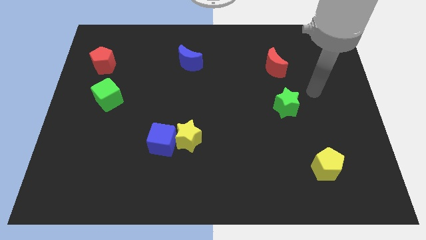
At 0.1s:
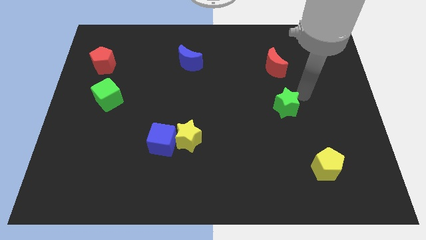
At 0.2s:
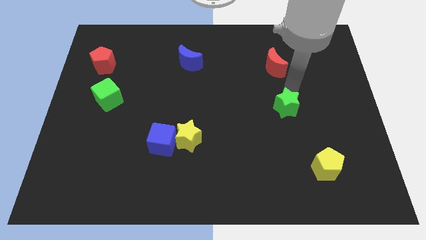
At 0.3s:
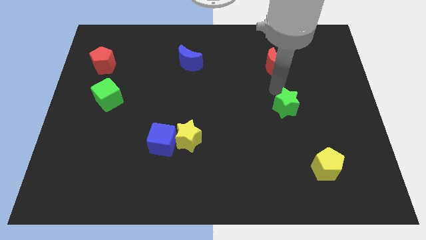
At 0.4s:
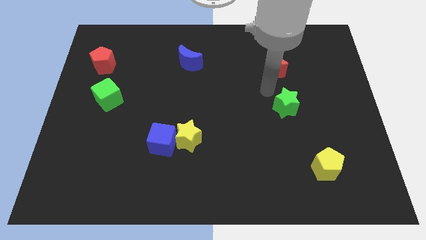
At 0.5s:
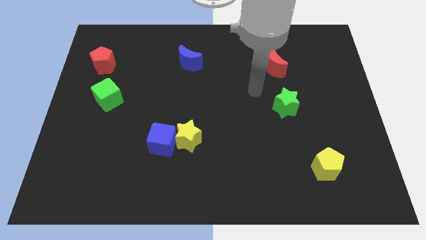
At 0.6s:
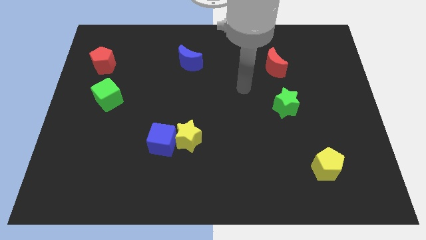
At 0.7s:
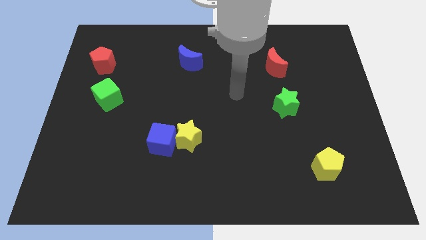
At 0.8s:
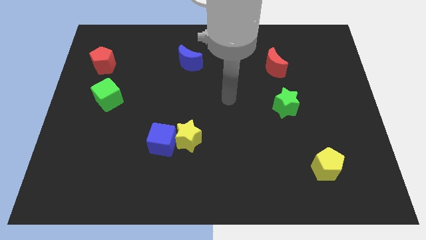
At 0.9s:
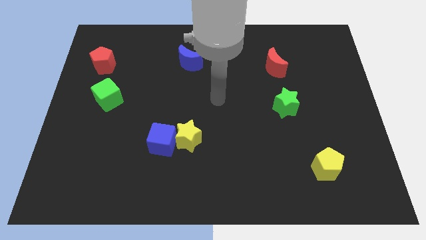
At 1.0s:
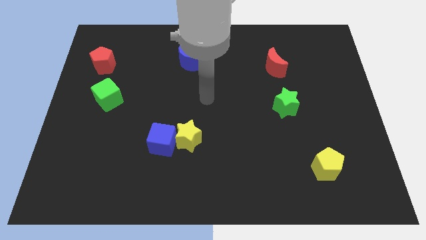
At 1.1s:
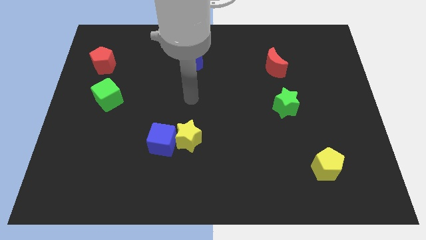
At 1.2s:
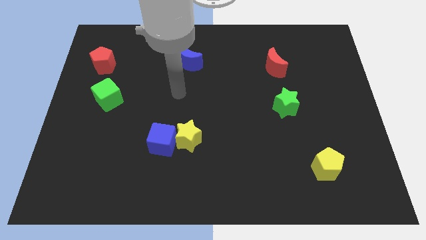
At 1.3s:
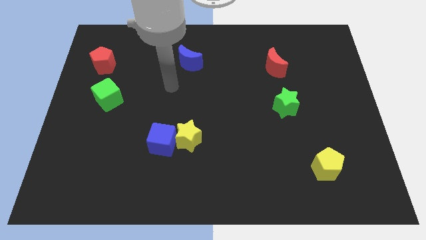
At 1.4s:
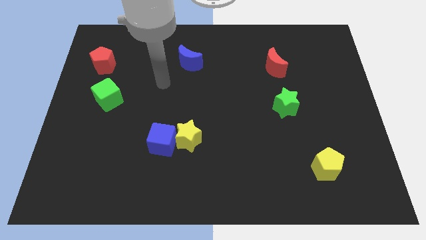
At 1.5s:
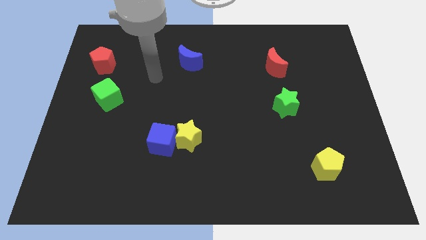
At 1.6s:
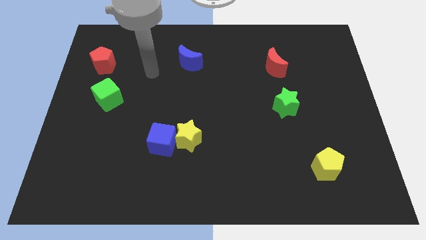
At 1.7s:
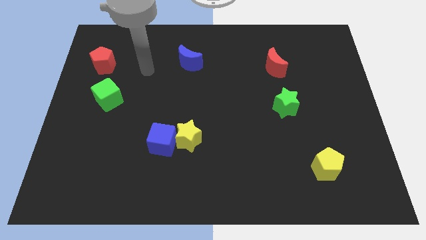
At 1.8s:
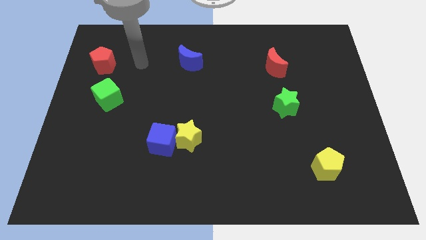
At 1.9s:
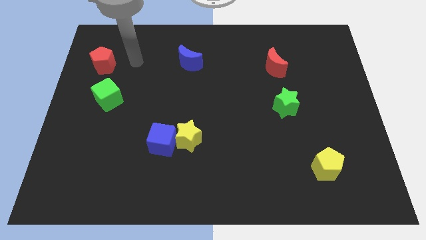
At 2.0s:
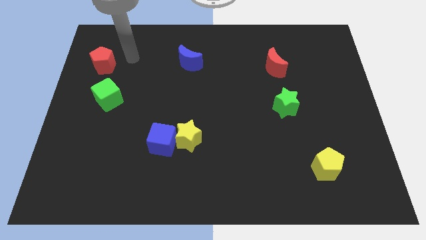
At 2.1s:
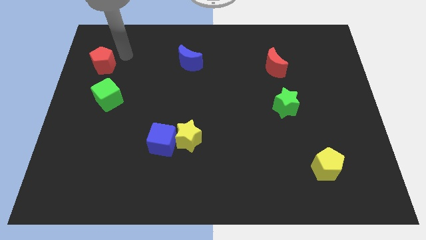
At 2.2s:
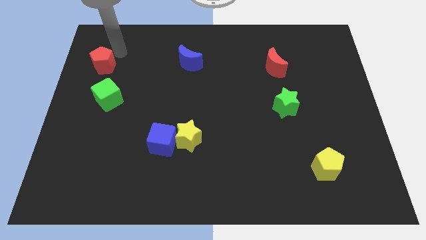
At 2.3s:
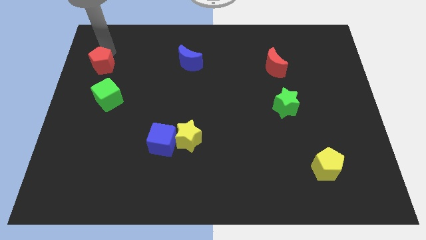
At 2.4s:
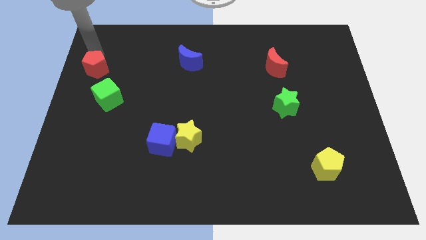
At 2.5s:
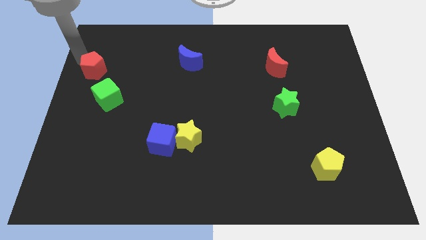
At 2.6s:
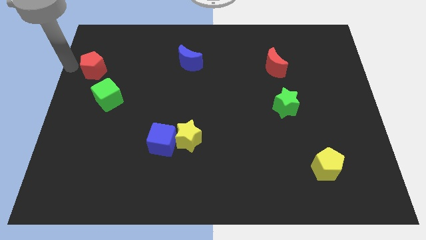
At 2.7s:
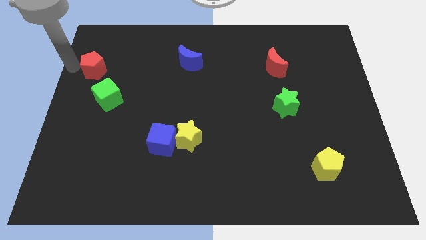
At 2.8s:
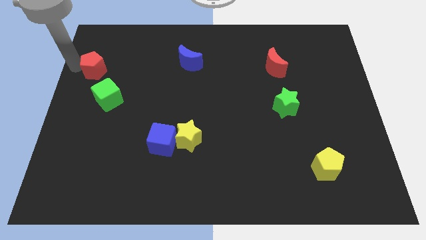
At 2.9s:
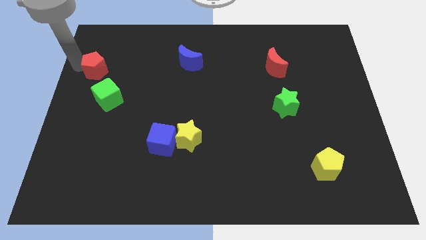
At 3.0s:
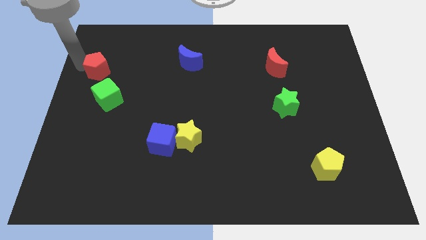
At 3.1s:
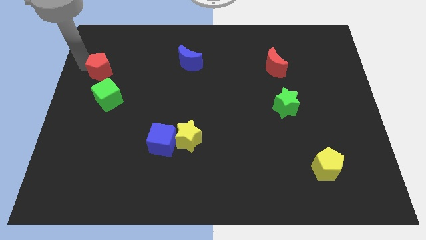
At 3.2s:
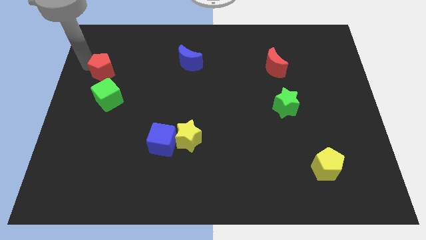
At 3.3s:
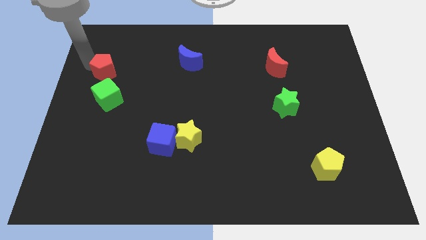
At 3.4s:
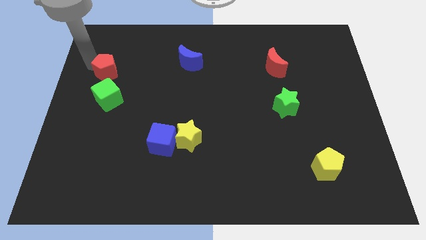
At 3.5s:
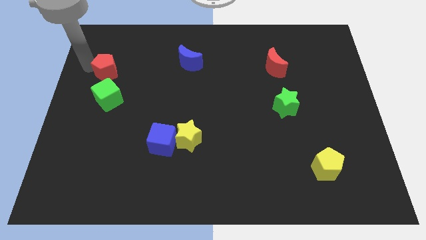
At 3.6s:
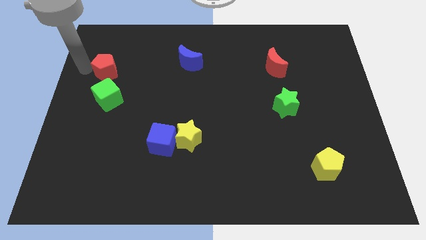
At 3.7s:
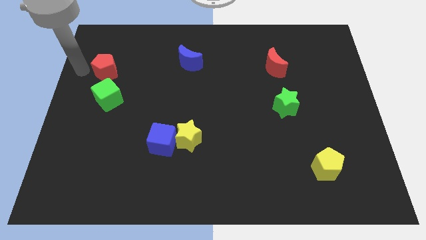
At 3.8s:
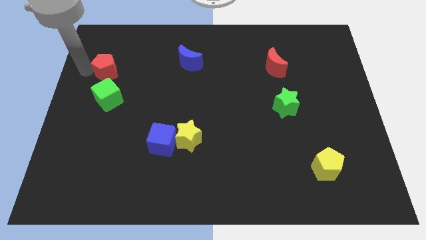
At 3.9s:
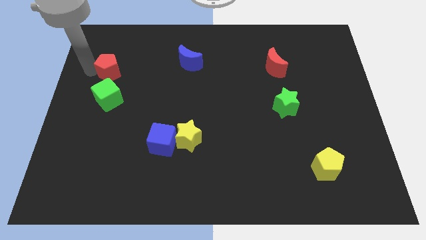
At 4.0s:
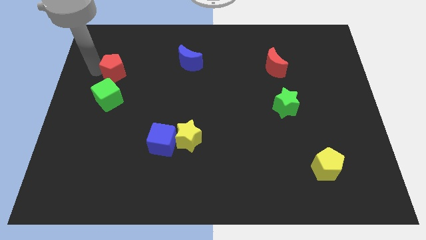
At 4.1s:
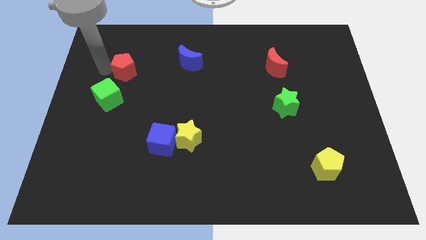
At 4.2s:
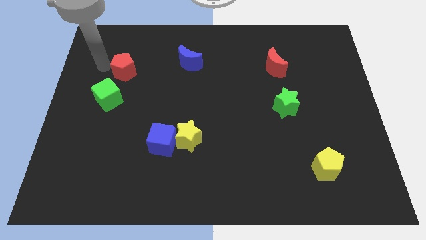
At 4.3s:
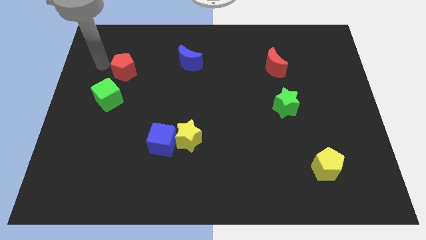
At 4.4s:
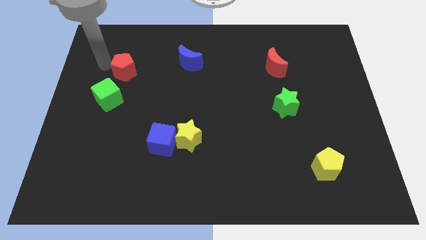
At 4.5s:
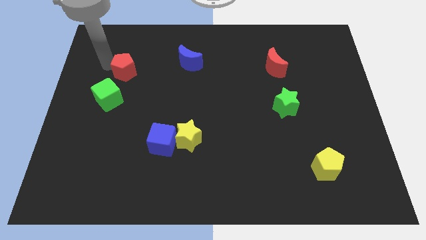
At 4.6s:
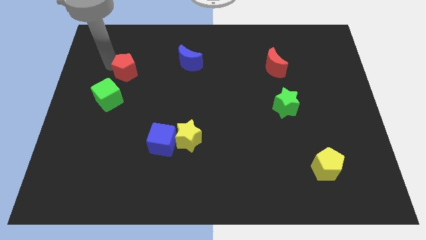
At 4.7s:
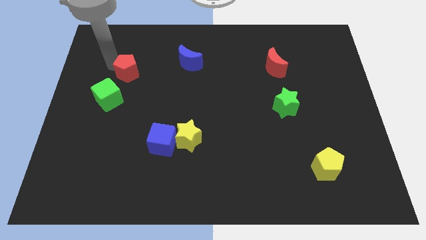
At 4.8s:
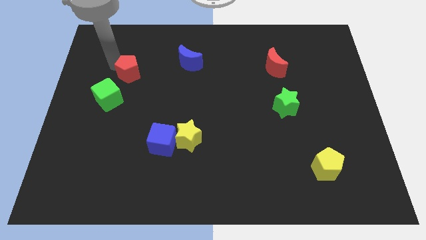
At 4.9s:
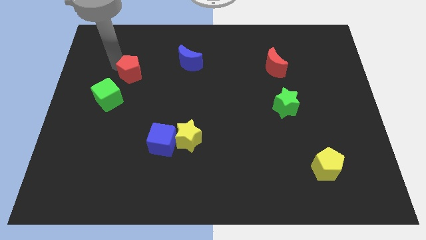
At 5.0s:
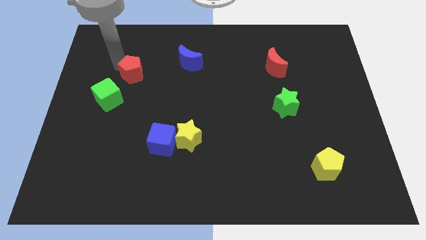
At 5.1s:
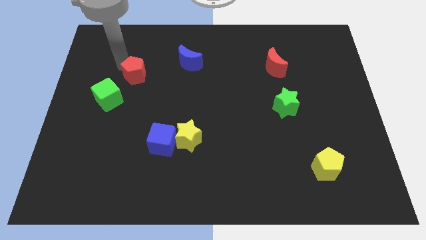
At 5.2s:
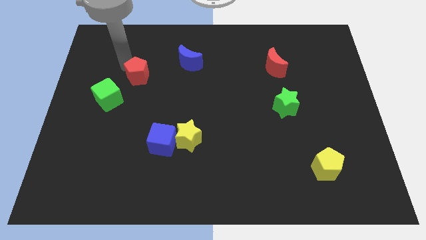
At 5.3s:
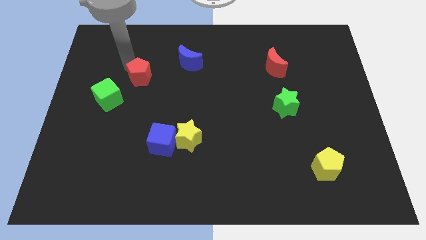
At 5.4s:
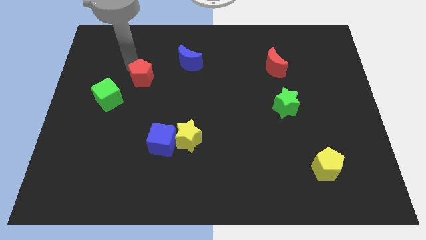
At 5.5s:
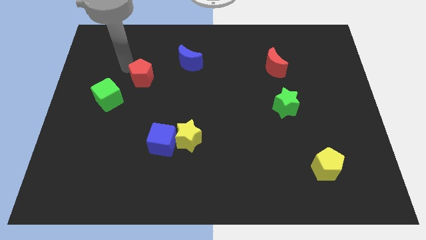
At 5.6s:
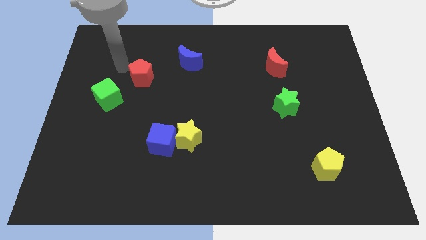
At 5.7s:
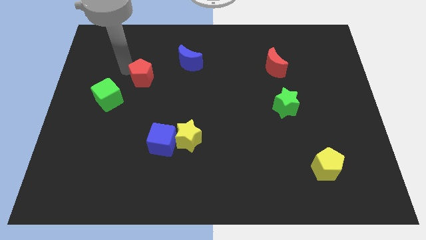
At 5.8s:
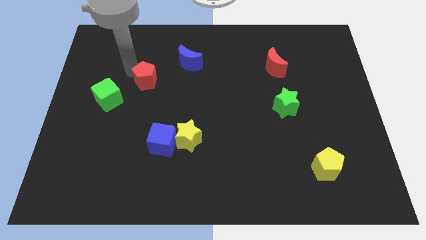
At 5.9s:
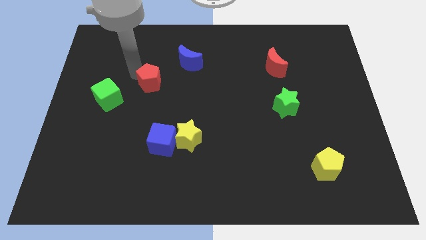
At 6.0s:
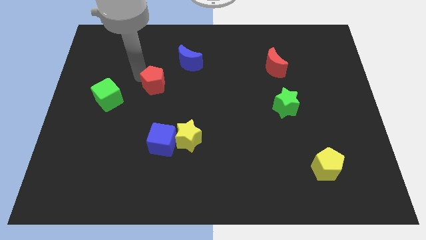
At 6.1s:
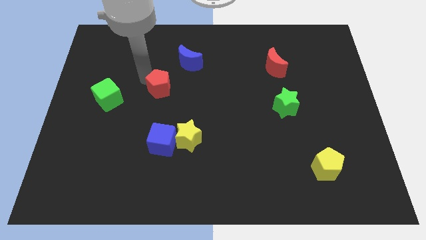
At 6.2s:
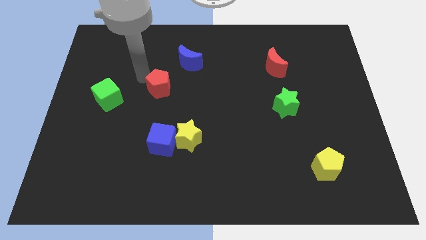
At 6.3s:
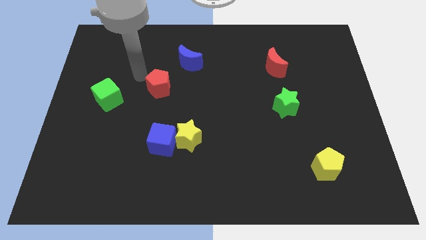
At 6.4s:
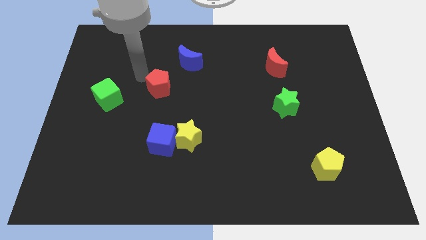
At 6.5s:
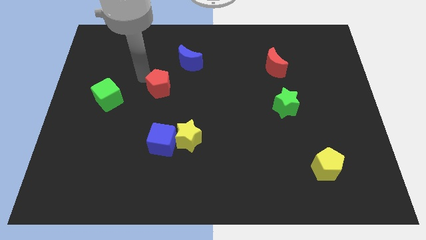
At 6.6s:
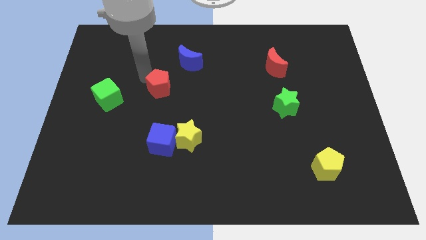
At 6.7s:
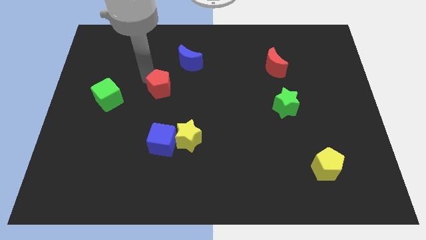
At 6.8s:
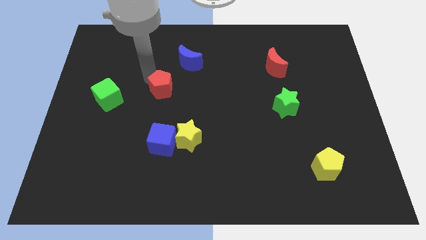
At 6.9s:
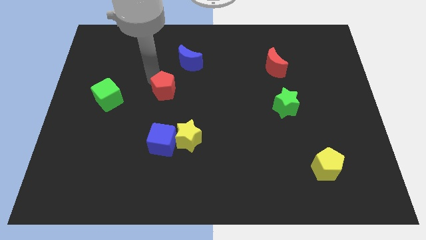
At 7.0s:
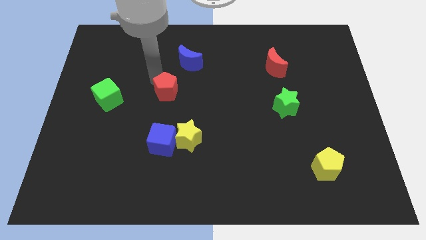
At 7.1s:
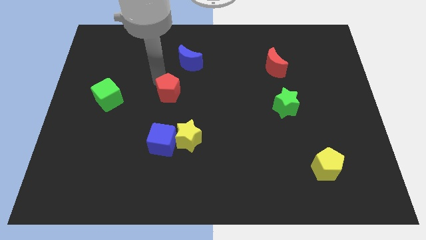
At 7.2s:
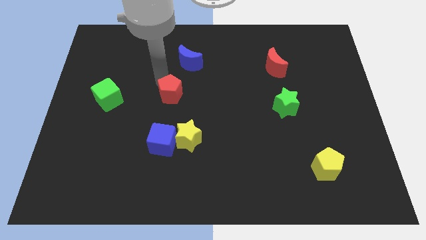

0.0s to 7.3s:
move the red pentagon to the top side of the yellow star

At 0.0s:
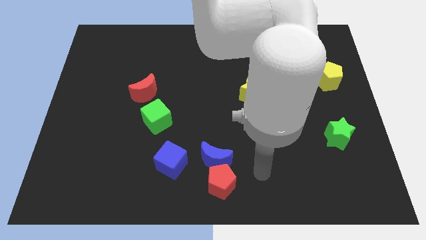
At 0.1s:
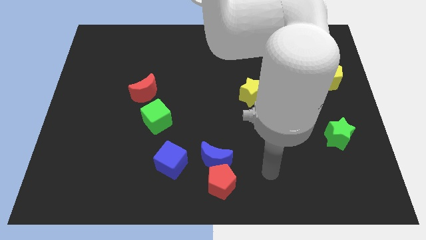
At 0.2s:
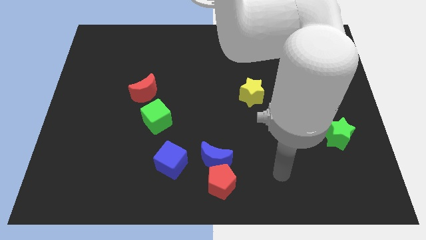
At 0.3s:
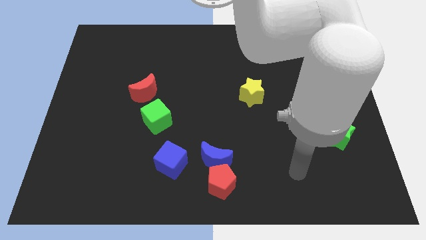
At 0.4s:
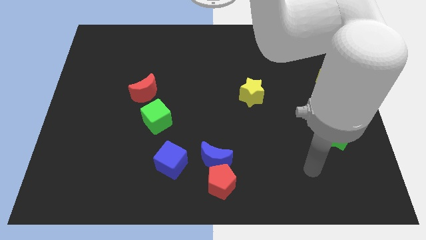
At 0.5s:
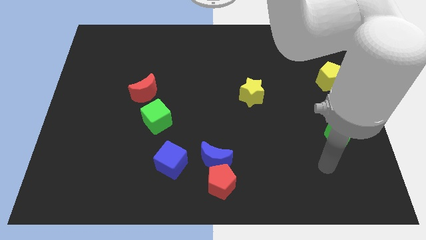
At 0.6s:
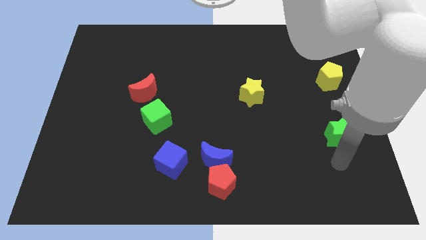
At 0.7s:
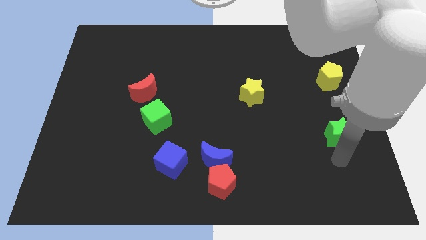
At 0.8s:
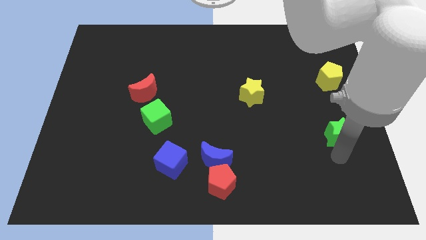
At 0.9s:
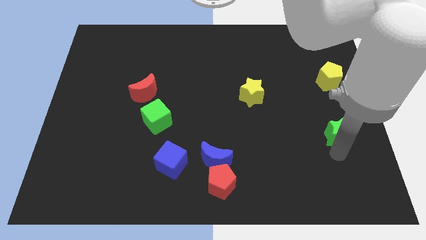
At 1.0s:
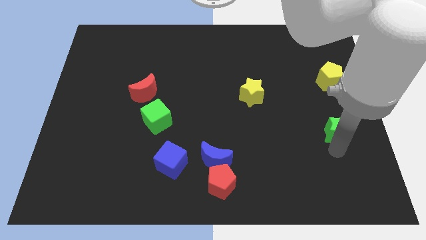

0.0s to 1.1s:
push the green star to the bottom of the yellow pentagon
